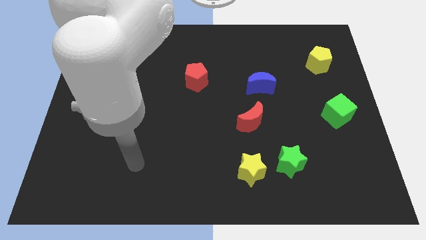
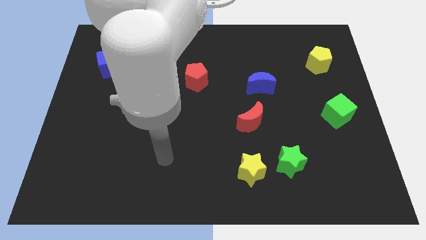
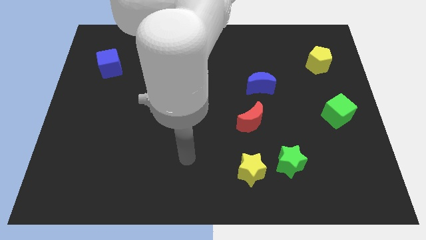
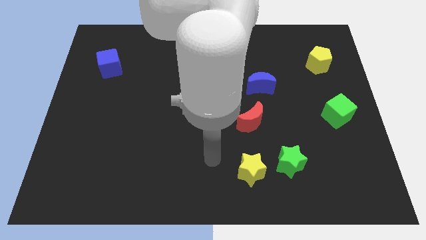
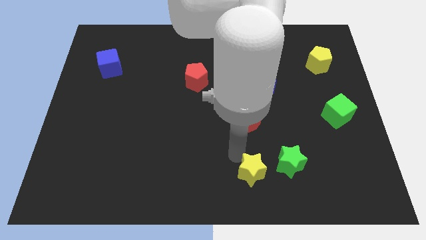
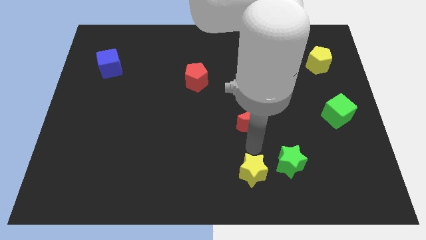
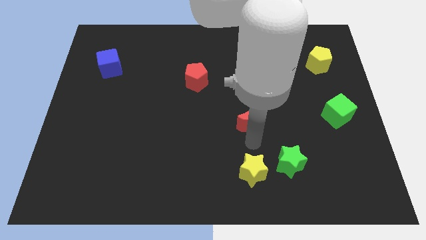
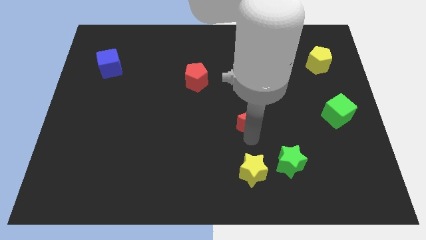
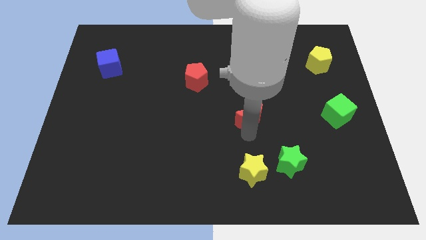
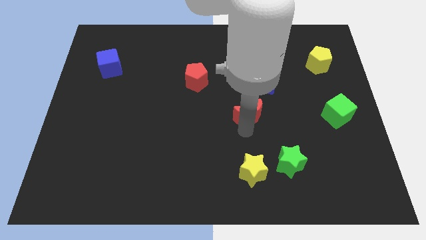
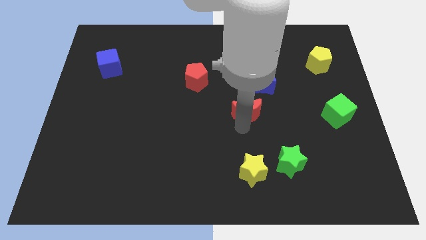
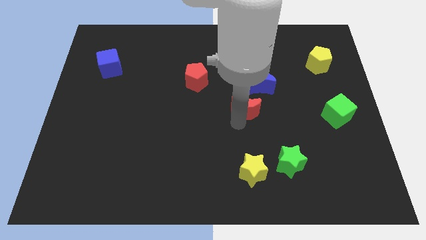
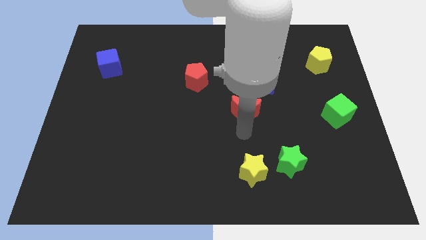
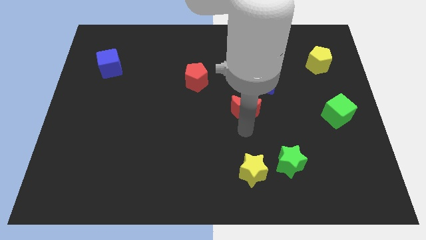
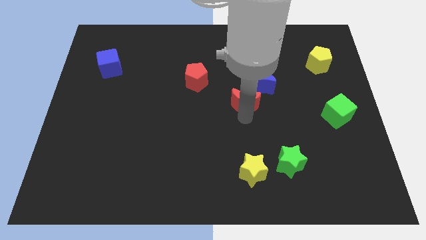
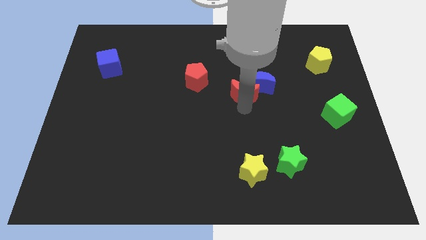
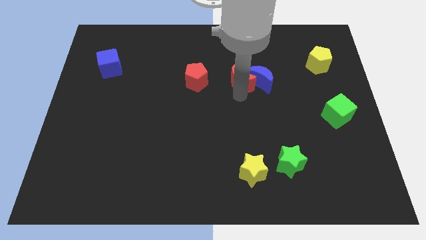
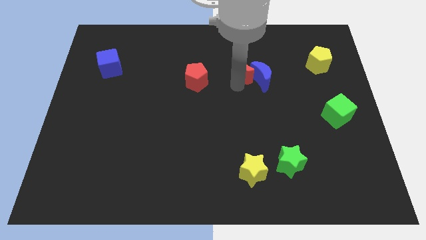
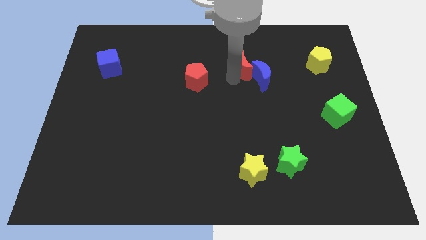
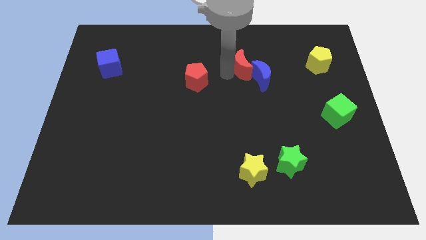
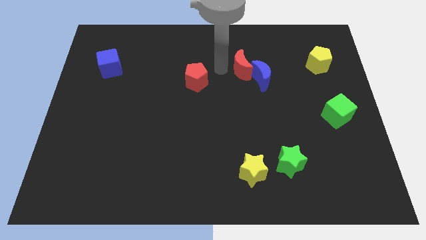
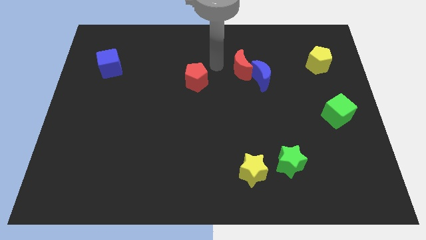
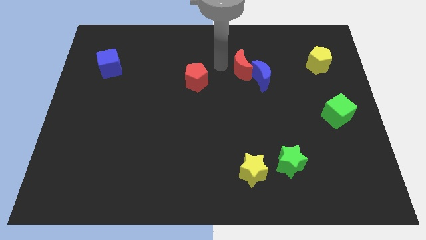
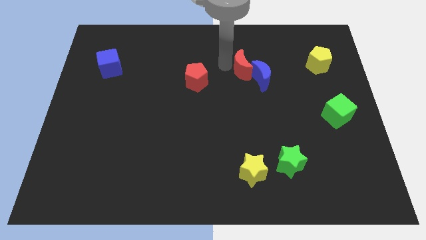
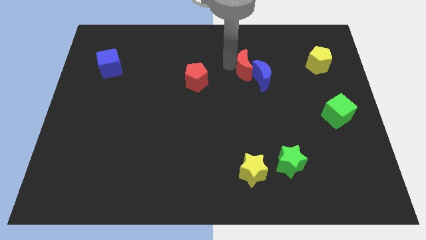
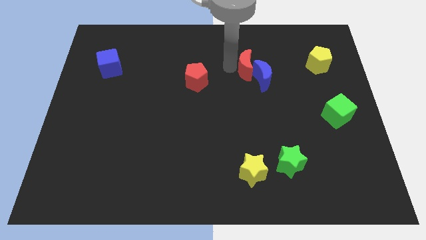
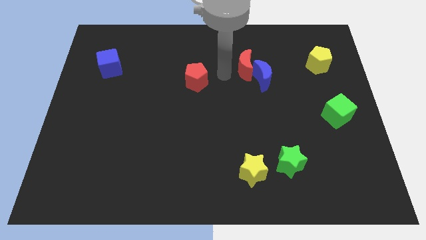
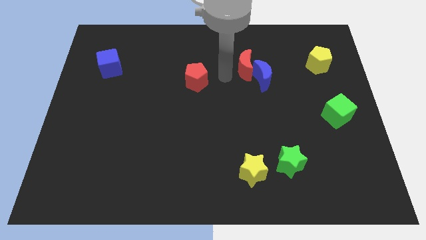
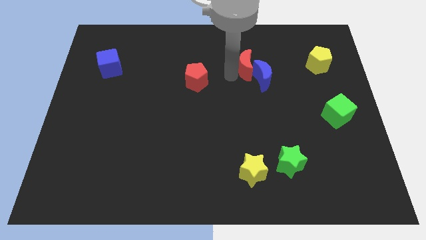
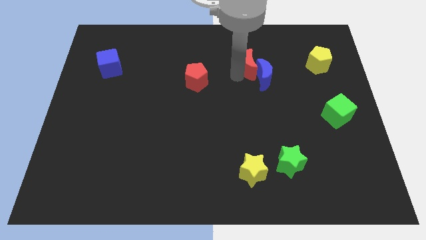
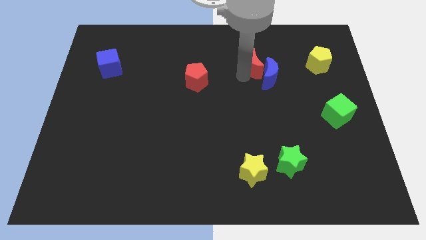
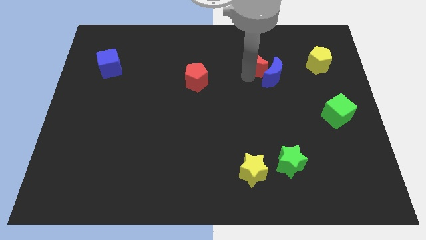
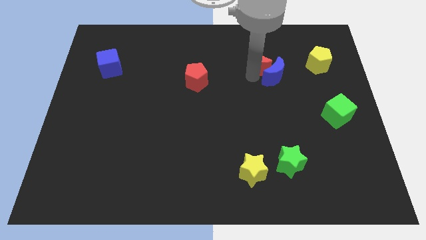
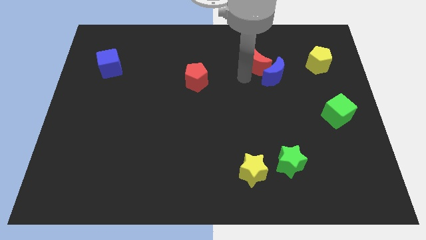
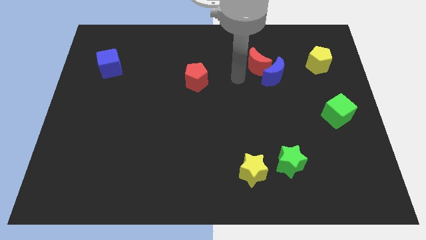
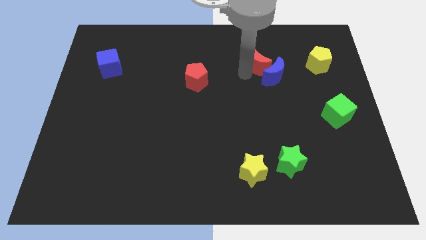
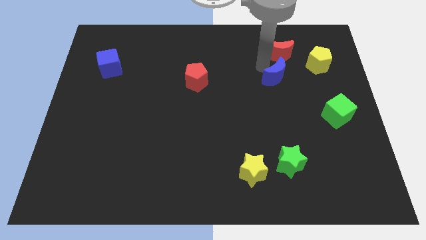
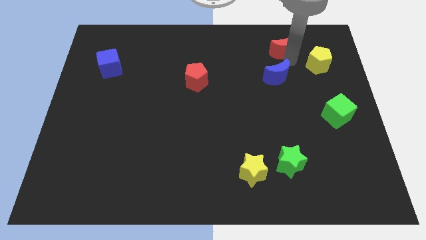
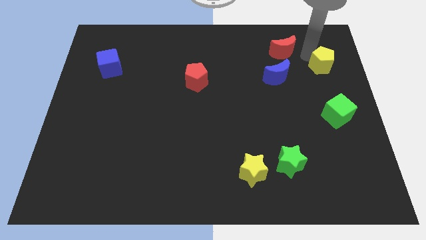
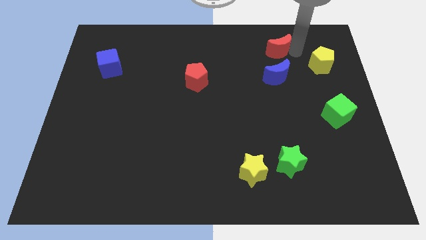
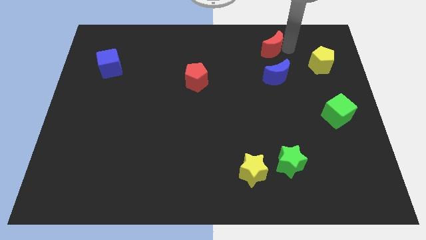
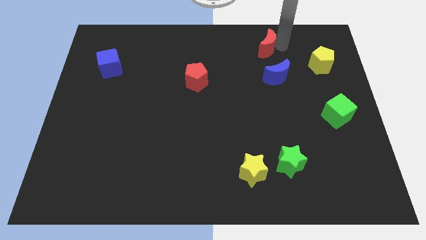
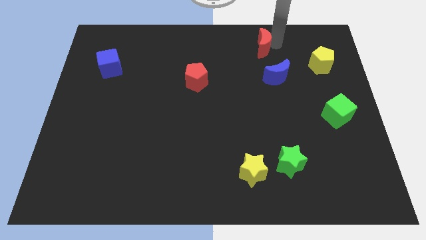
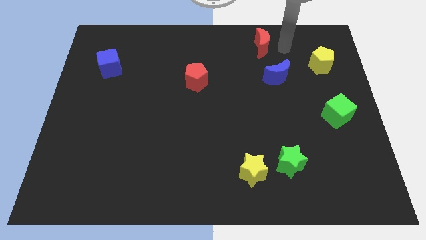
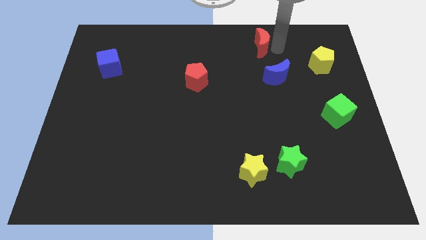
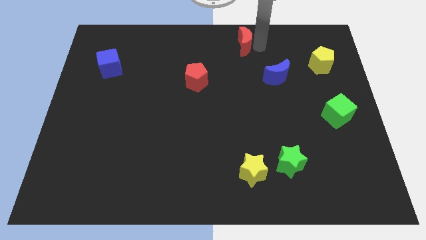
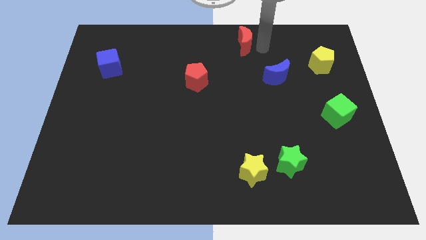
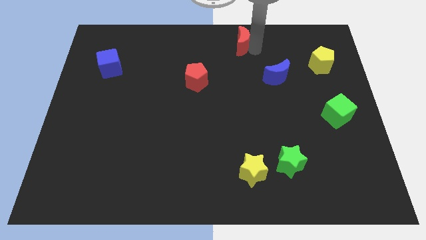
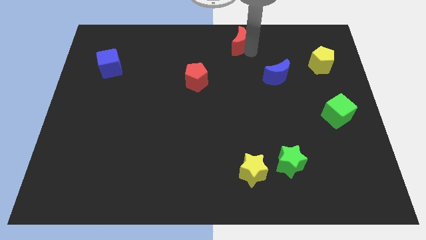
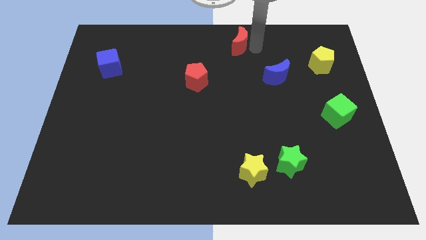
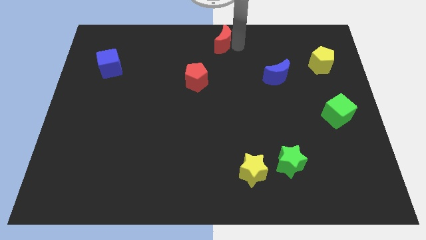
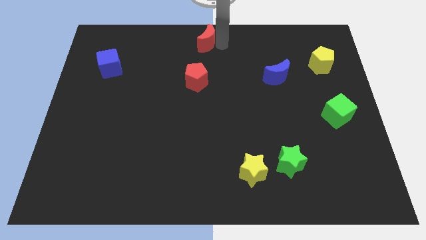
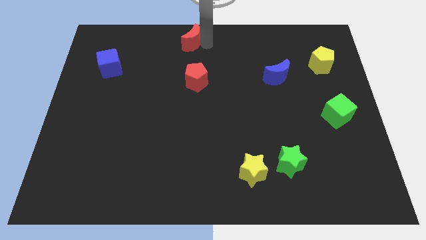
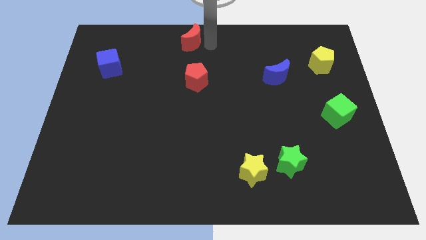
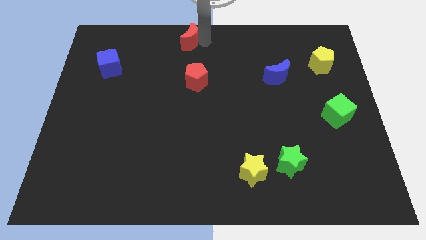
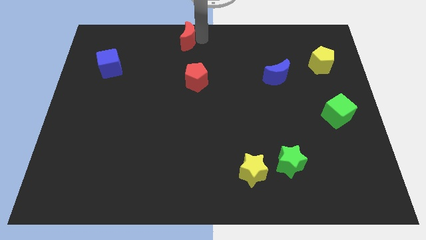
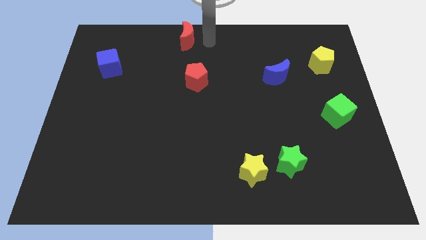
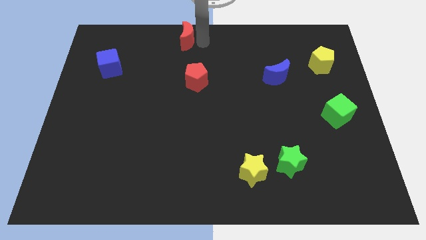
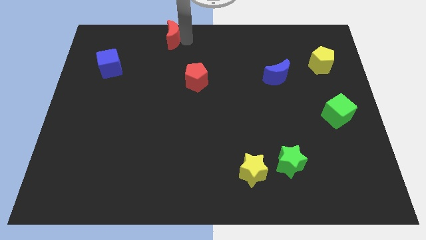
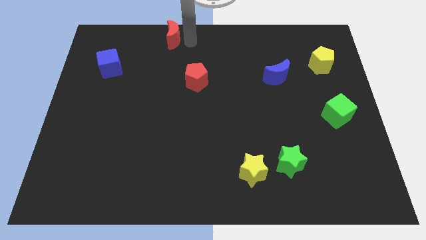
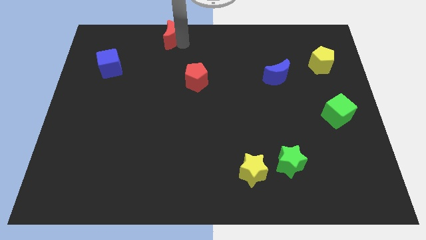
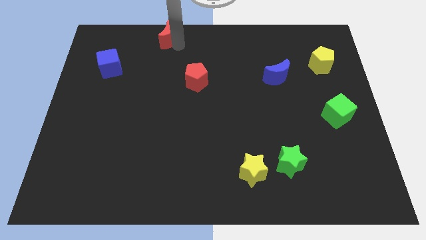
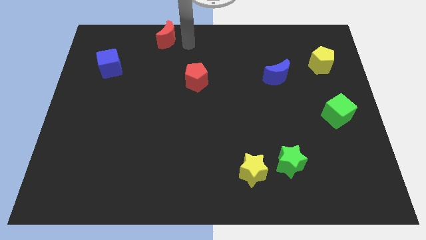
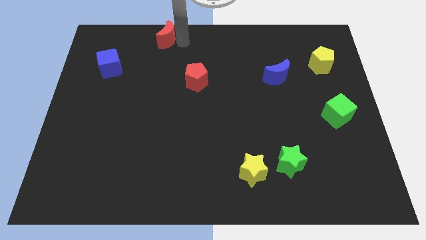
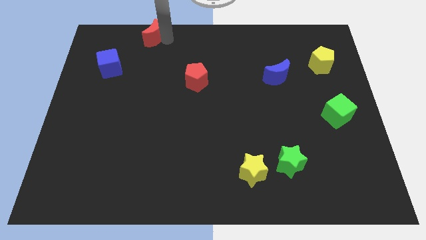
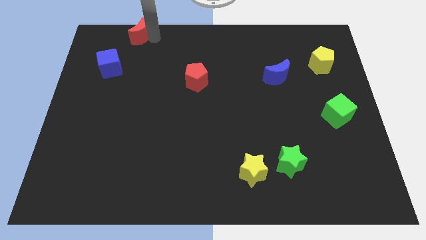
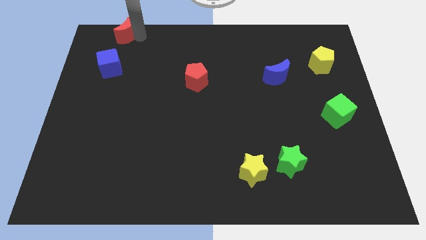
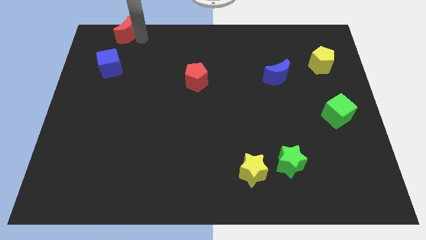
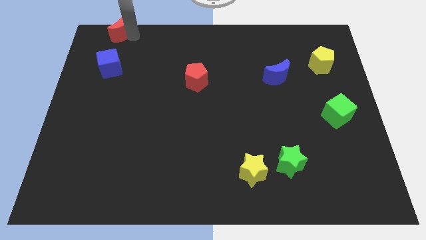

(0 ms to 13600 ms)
put the red moon to the top left of the board
